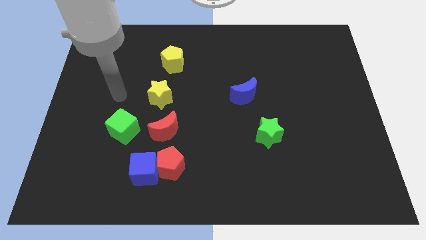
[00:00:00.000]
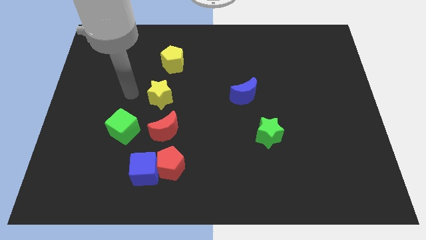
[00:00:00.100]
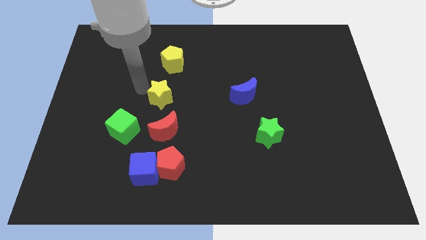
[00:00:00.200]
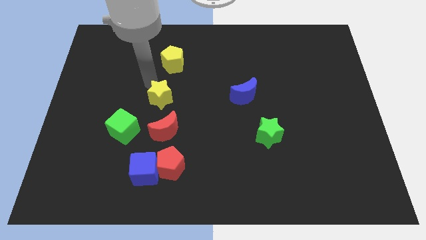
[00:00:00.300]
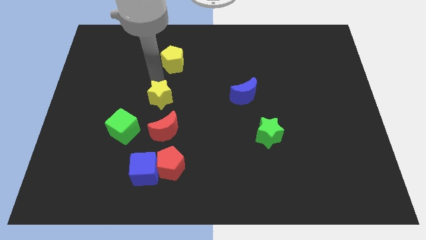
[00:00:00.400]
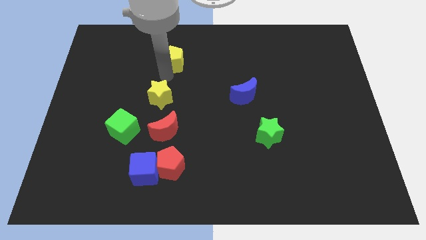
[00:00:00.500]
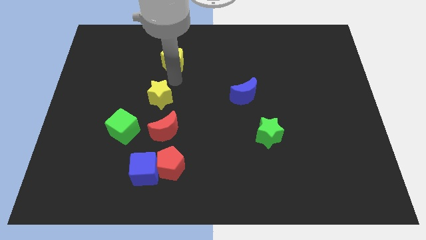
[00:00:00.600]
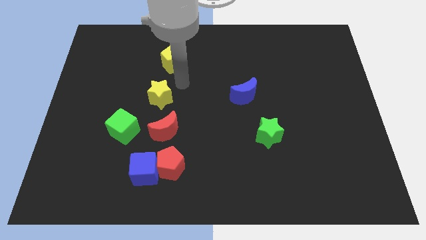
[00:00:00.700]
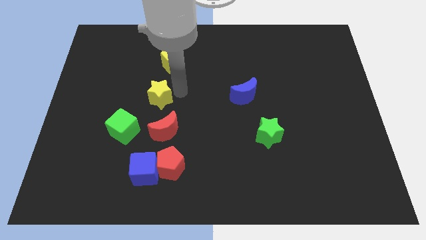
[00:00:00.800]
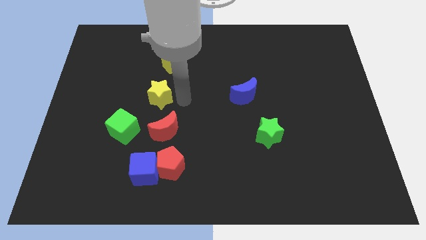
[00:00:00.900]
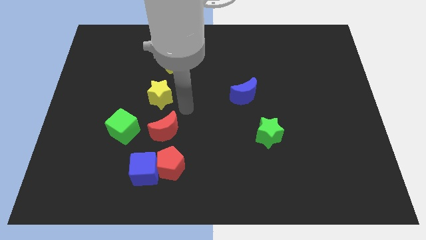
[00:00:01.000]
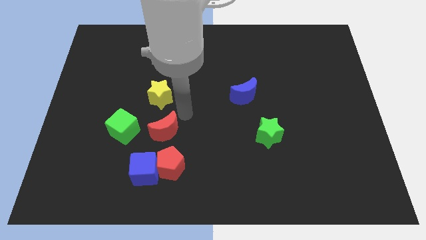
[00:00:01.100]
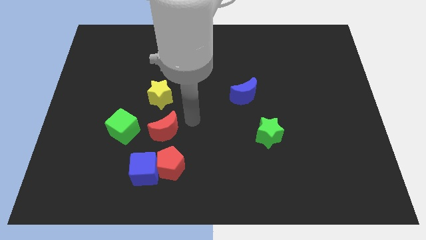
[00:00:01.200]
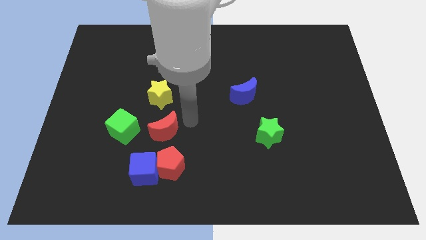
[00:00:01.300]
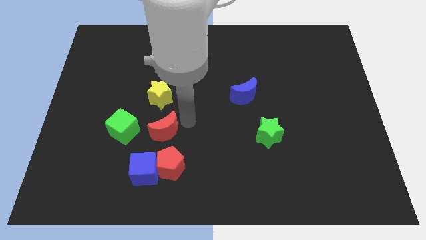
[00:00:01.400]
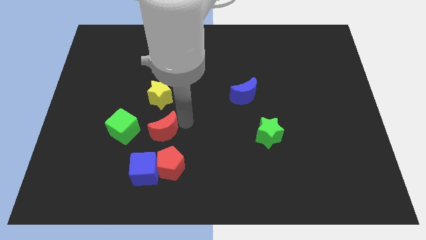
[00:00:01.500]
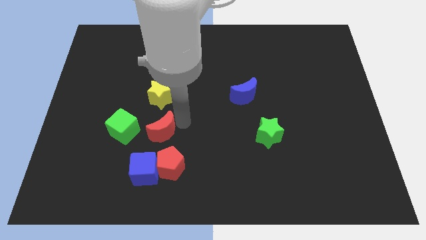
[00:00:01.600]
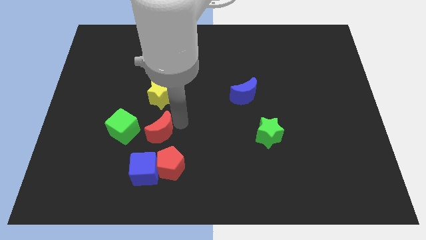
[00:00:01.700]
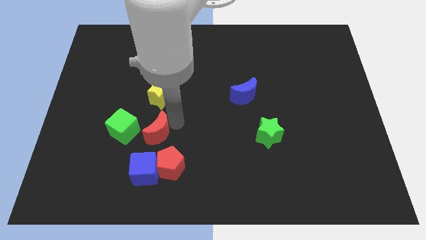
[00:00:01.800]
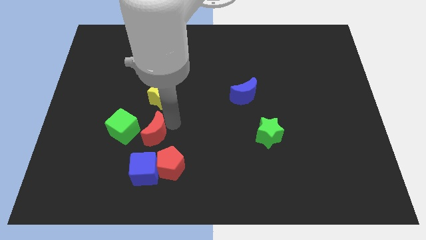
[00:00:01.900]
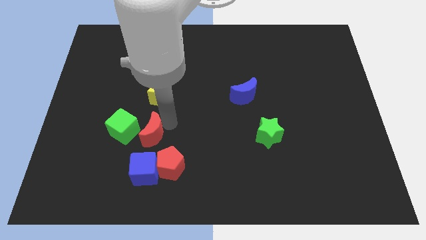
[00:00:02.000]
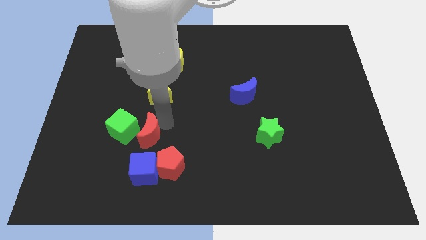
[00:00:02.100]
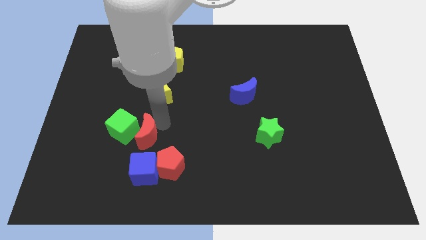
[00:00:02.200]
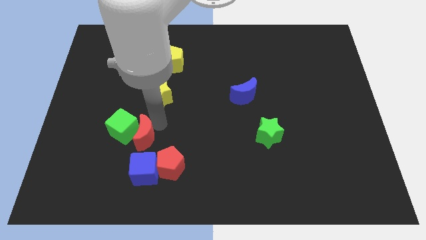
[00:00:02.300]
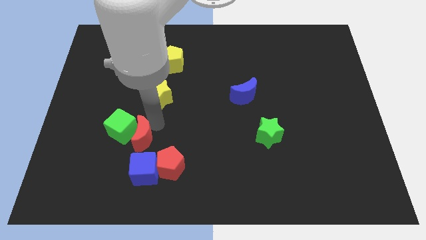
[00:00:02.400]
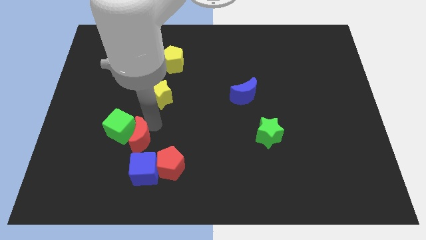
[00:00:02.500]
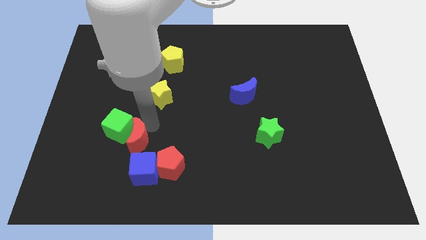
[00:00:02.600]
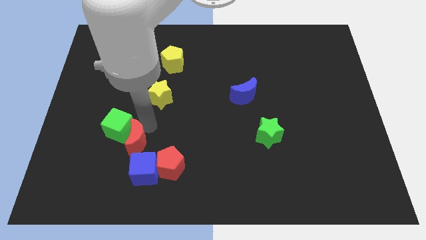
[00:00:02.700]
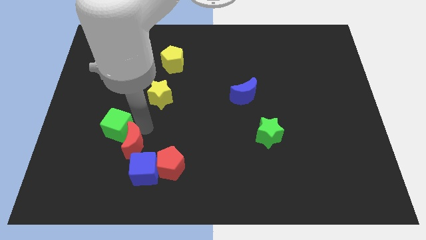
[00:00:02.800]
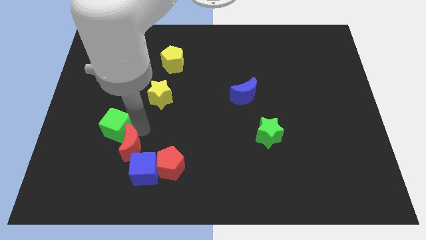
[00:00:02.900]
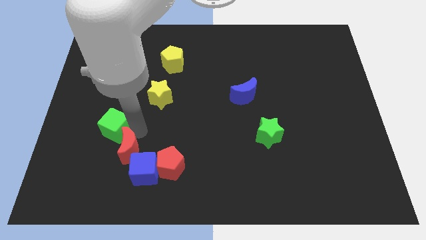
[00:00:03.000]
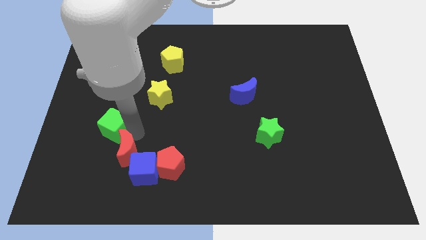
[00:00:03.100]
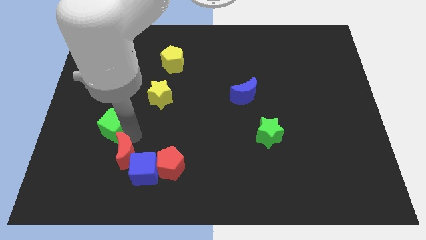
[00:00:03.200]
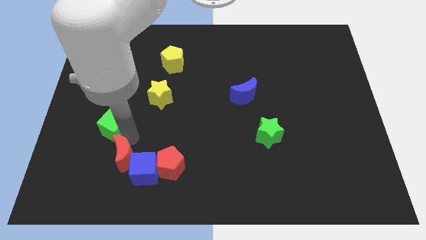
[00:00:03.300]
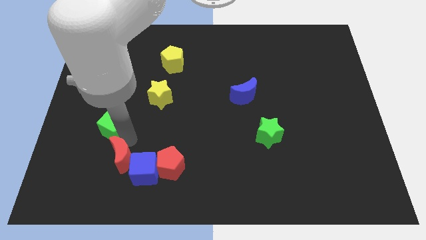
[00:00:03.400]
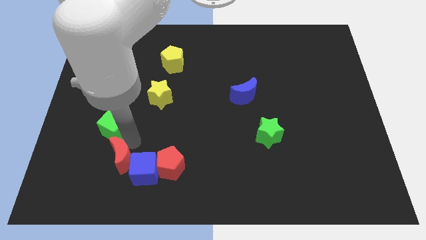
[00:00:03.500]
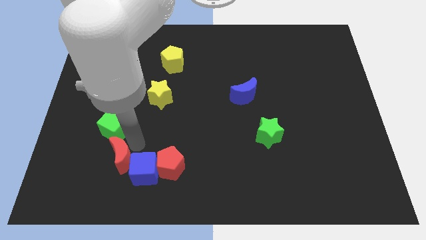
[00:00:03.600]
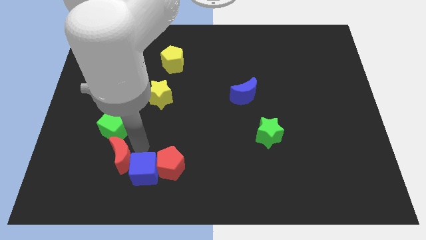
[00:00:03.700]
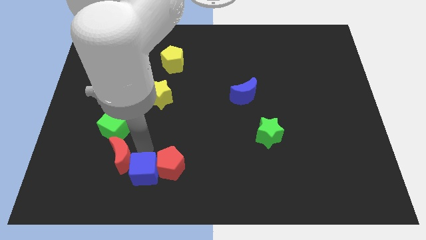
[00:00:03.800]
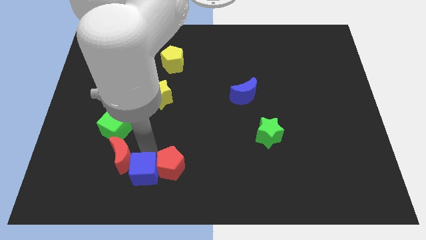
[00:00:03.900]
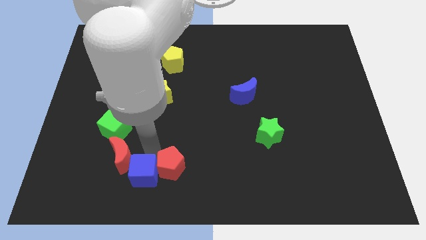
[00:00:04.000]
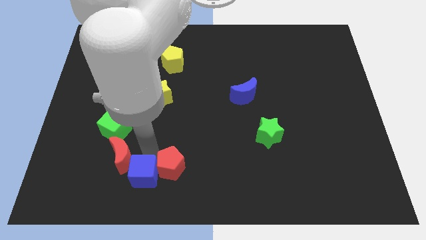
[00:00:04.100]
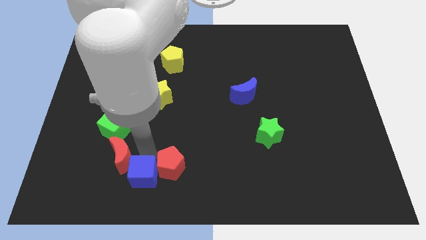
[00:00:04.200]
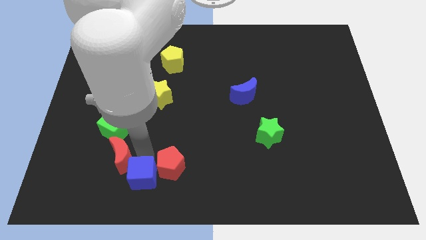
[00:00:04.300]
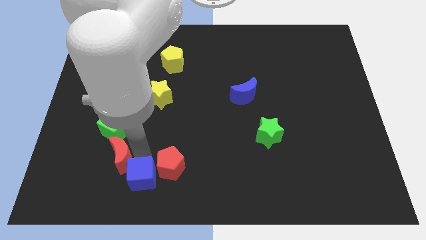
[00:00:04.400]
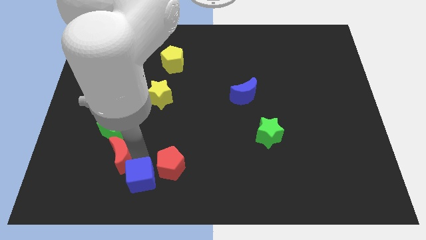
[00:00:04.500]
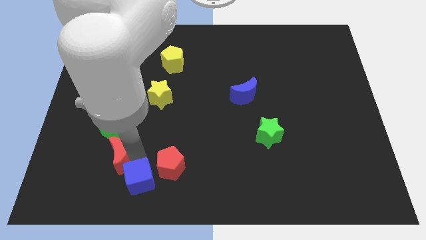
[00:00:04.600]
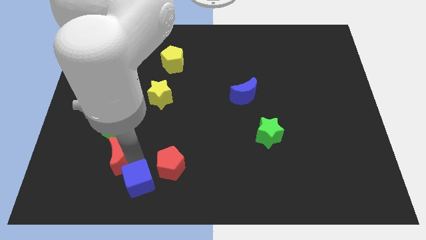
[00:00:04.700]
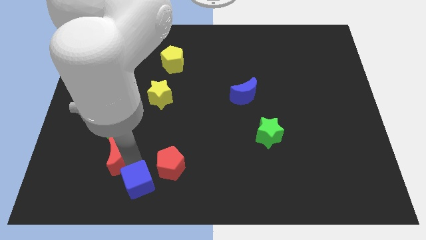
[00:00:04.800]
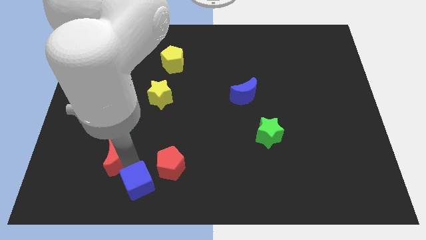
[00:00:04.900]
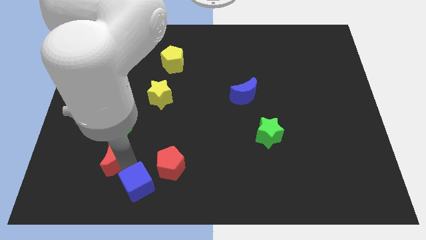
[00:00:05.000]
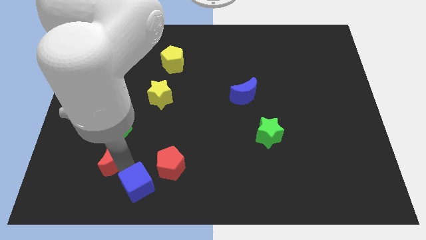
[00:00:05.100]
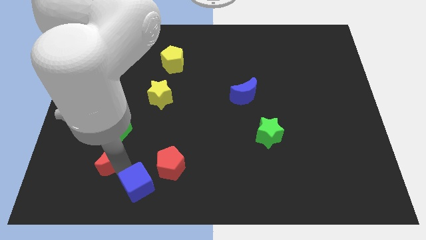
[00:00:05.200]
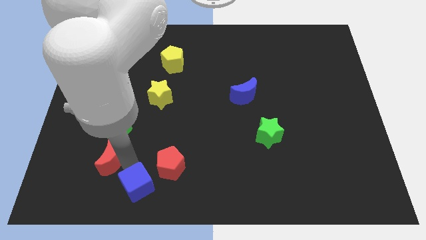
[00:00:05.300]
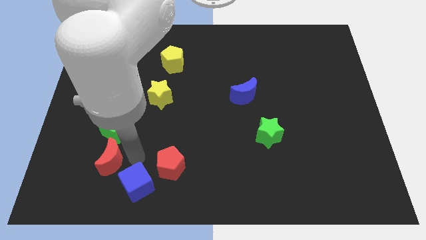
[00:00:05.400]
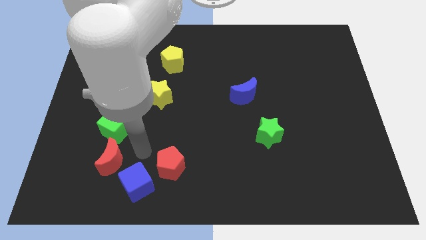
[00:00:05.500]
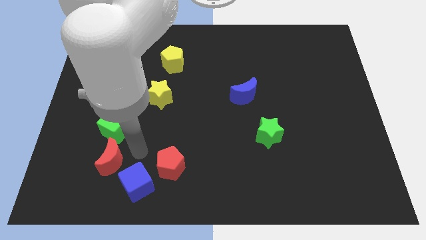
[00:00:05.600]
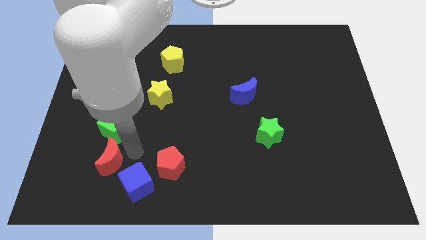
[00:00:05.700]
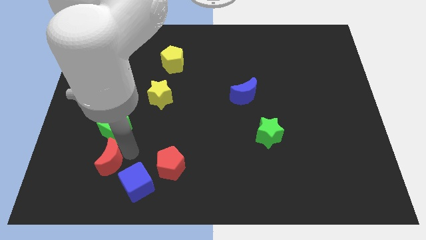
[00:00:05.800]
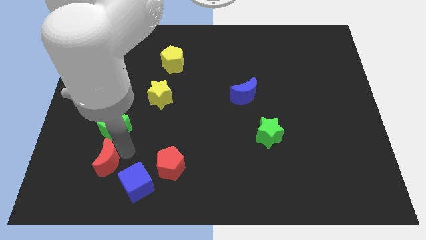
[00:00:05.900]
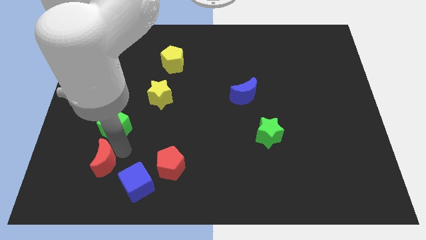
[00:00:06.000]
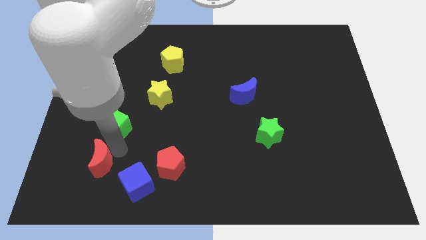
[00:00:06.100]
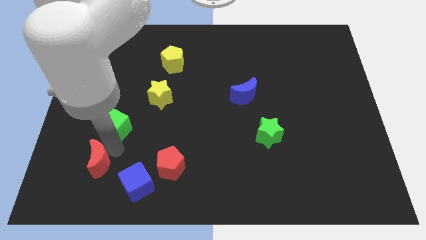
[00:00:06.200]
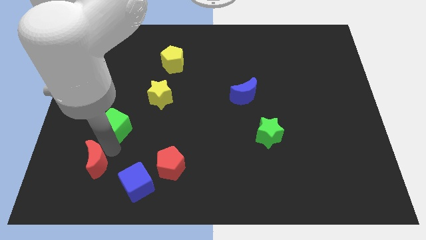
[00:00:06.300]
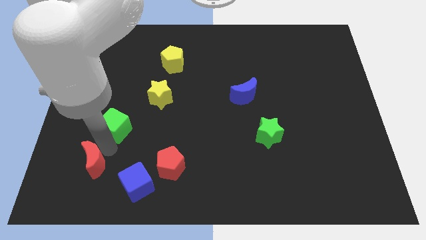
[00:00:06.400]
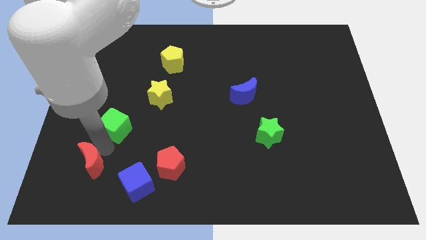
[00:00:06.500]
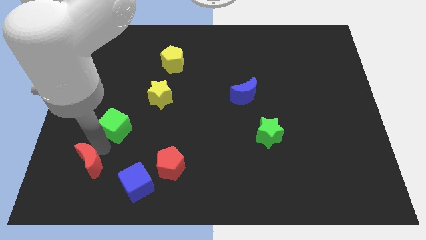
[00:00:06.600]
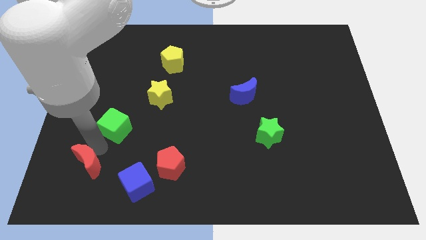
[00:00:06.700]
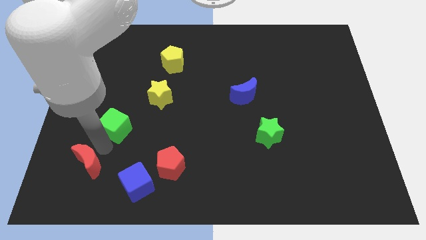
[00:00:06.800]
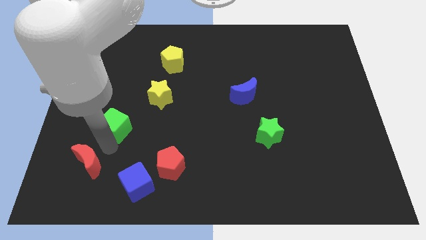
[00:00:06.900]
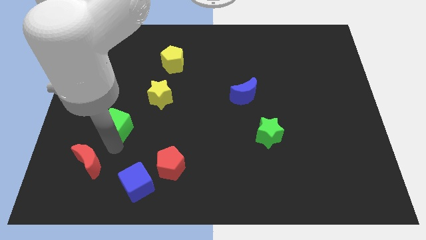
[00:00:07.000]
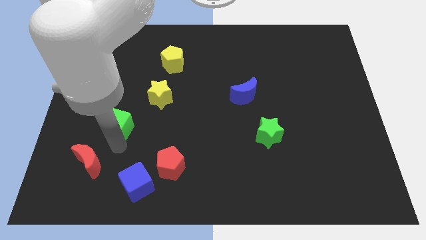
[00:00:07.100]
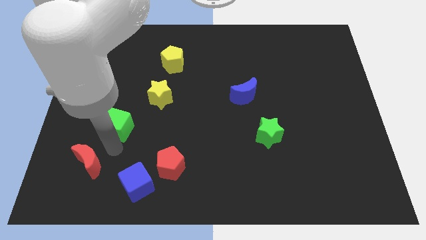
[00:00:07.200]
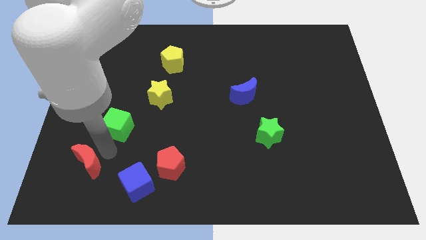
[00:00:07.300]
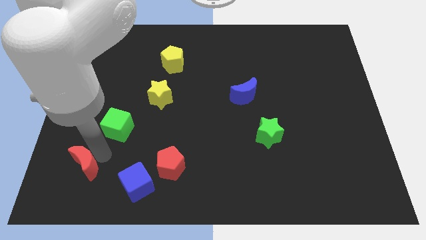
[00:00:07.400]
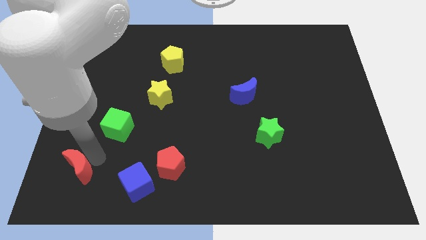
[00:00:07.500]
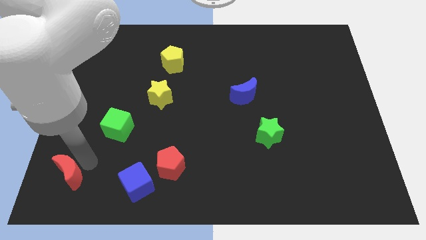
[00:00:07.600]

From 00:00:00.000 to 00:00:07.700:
move the red moon to the lower left corner
